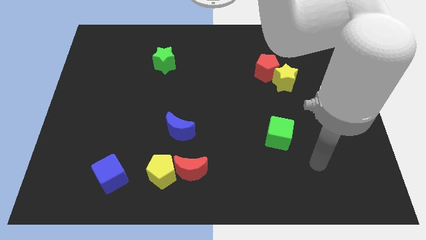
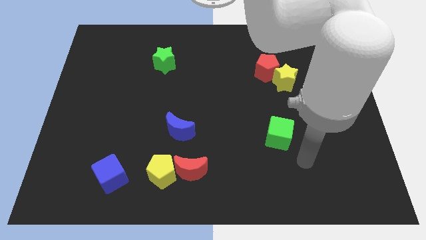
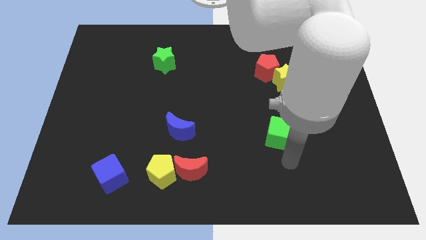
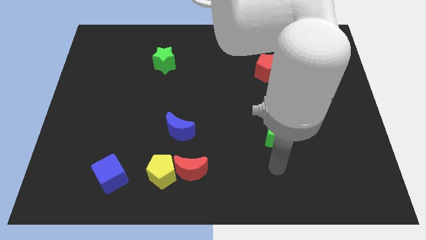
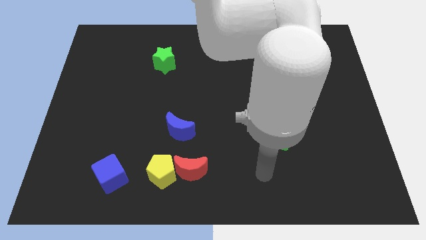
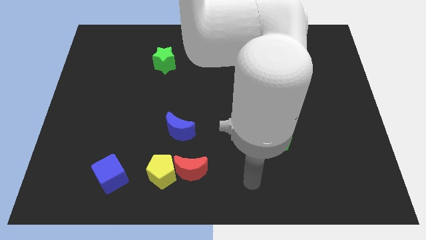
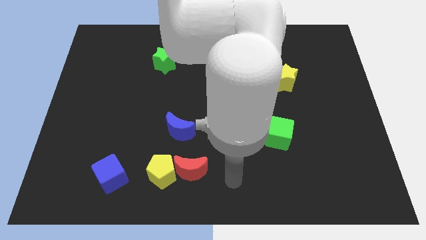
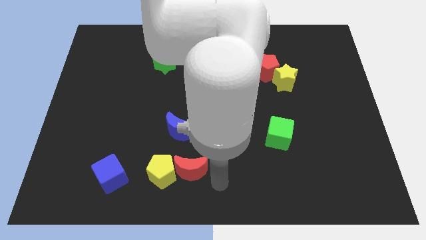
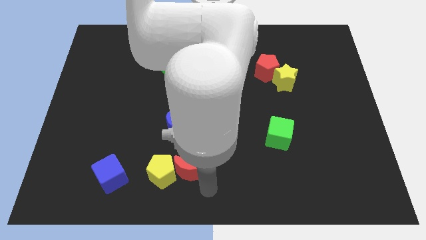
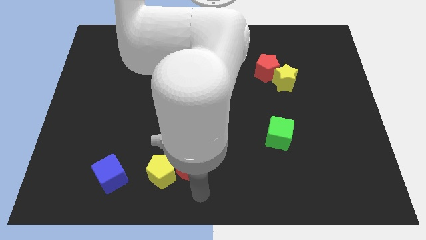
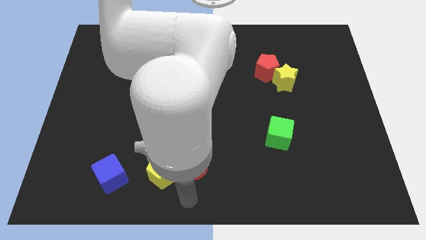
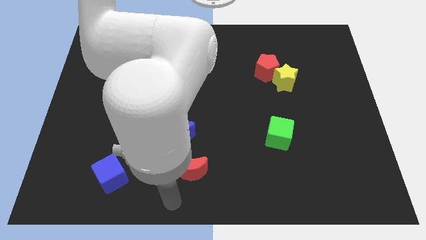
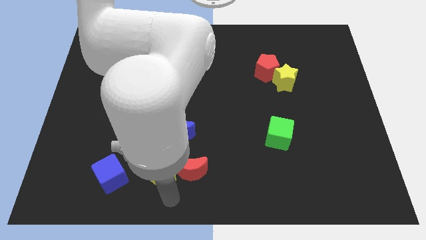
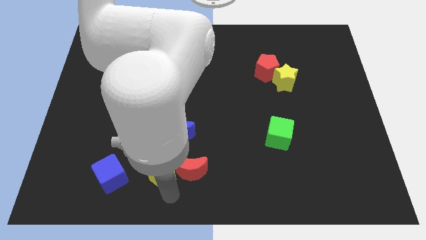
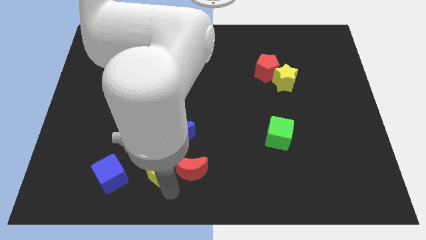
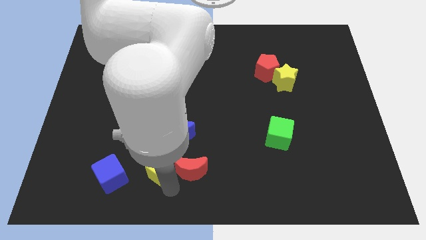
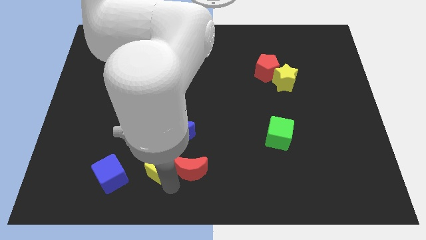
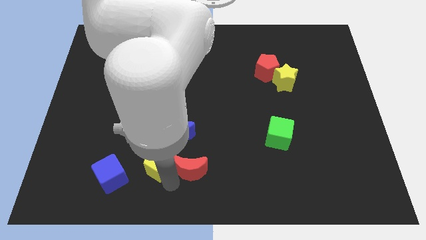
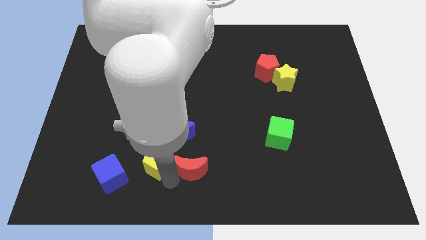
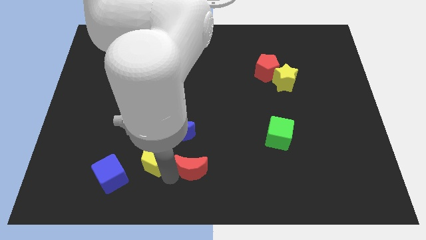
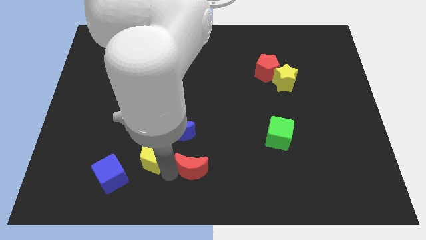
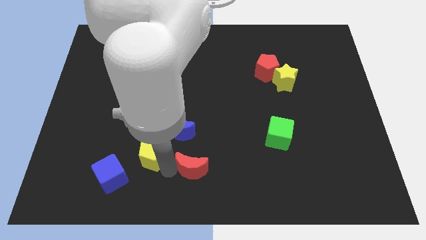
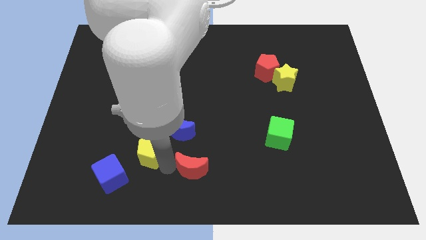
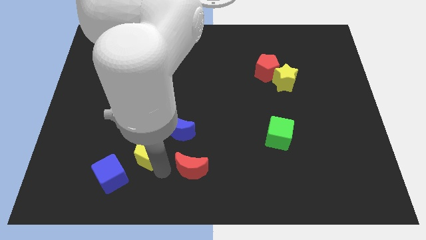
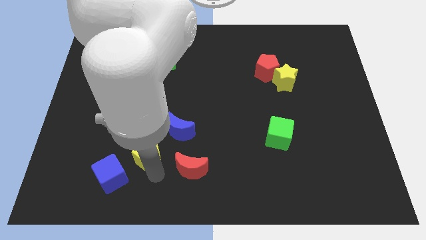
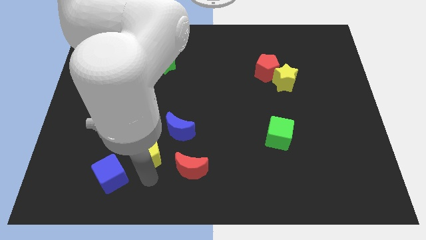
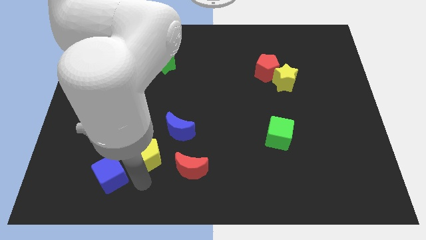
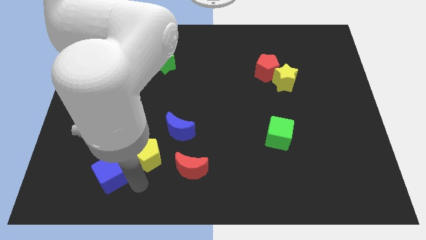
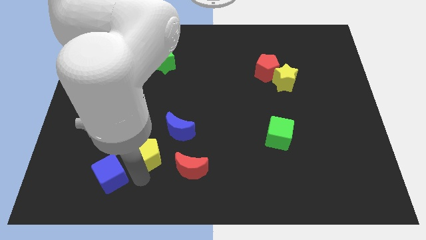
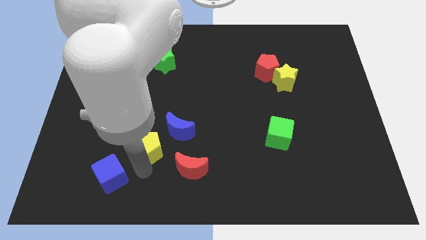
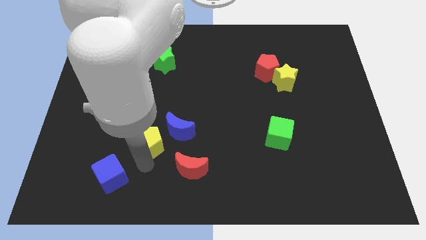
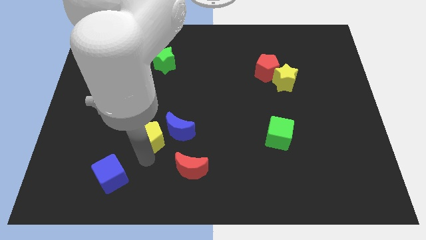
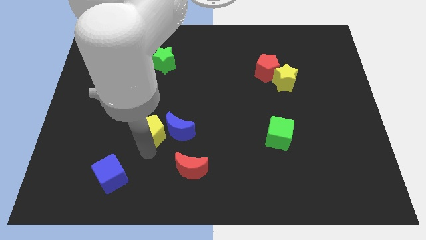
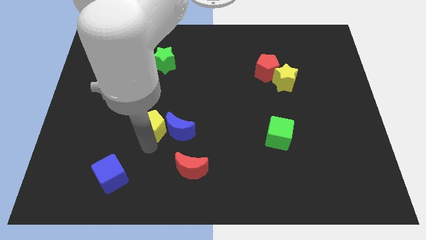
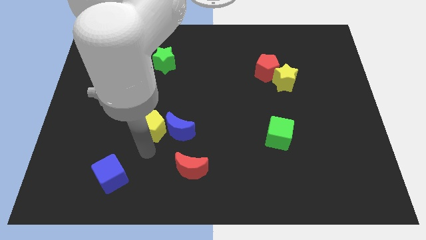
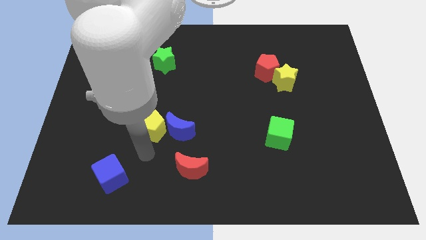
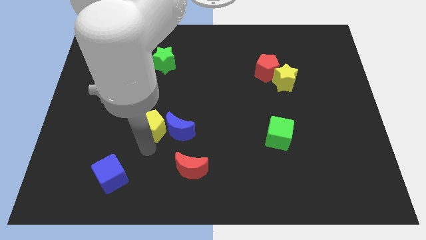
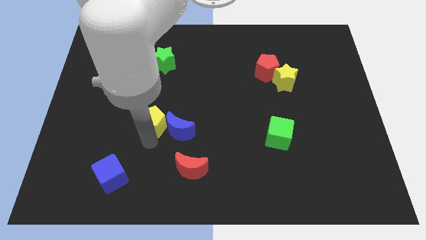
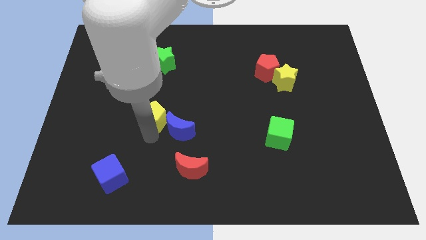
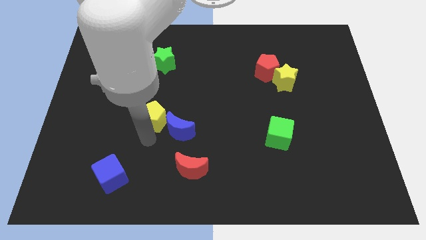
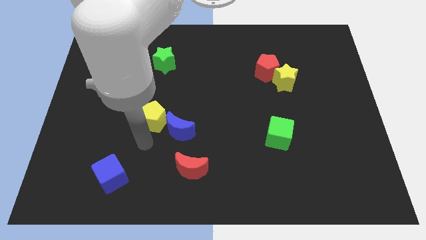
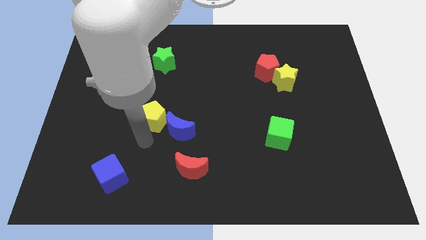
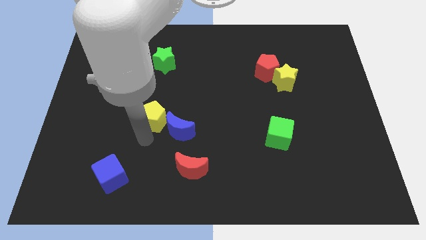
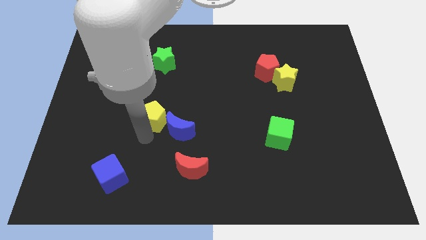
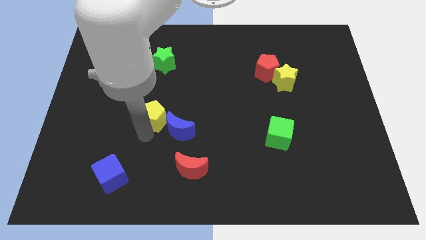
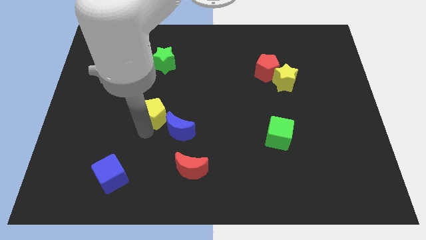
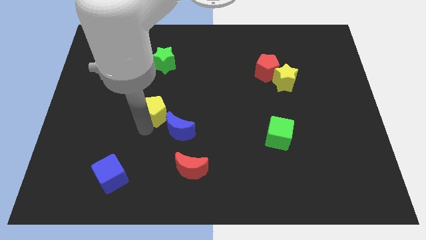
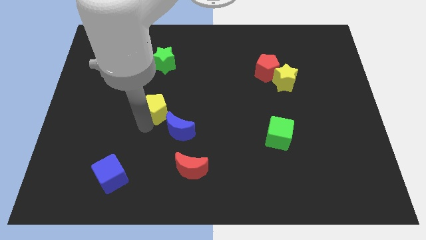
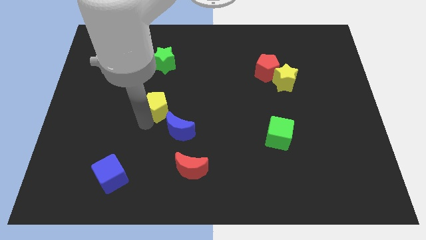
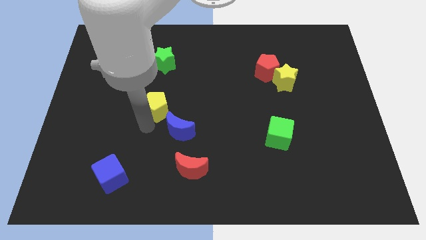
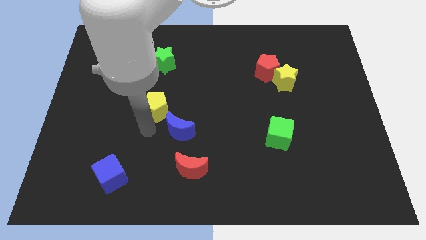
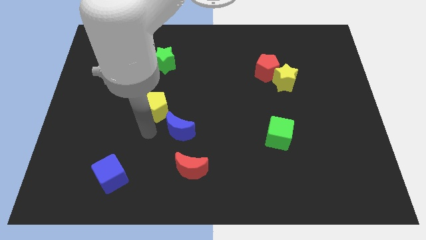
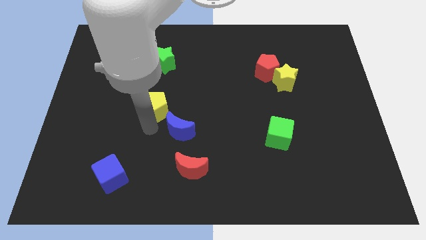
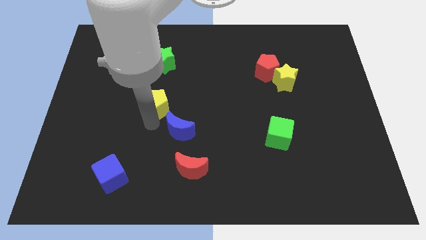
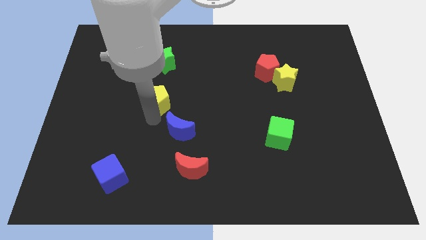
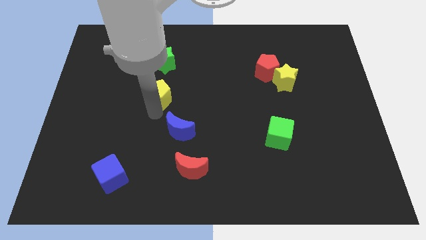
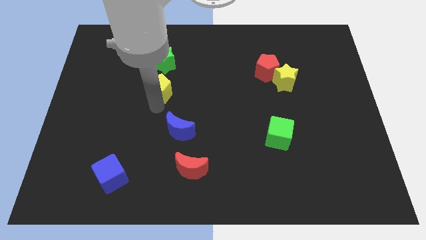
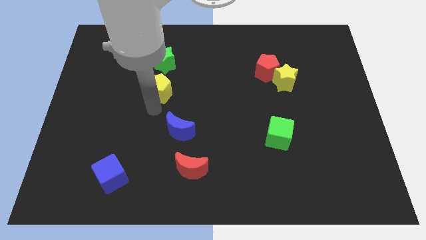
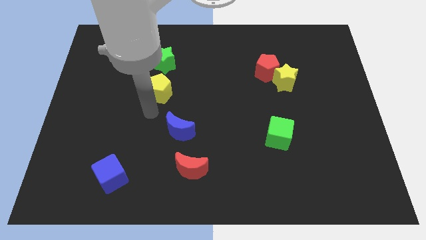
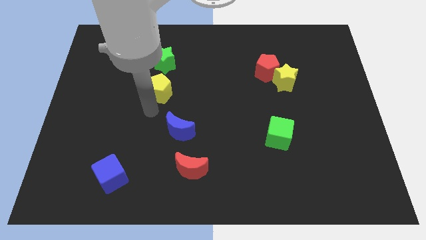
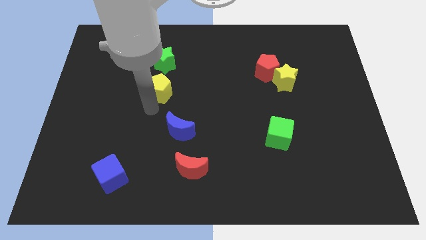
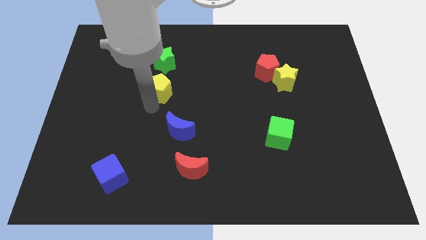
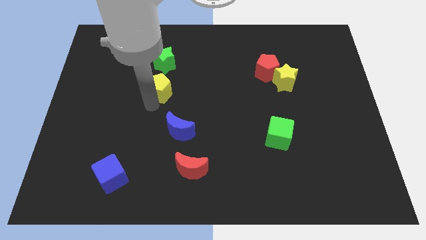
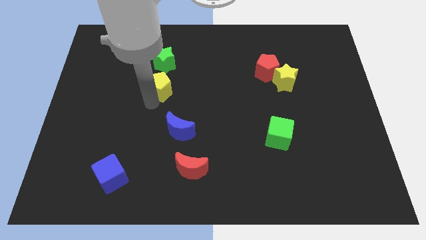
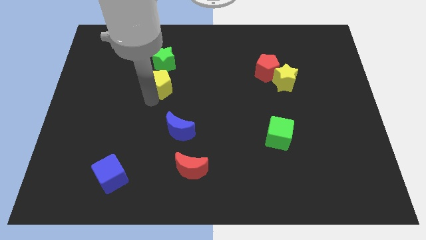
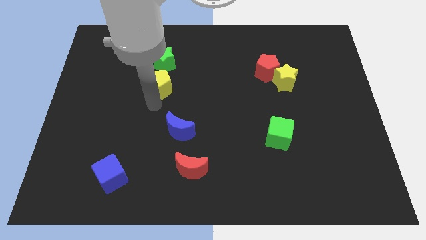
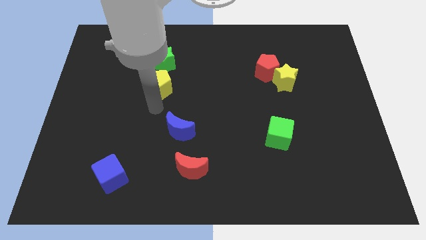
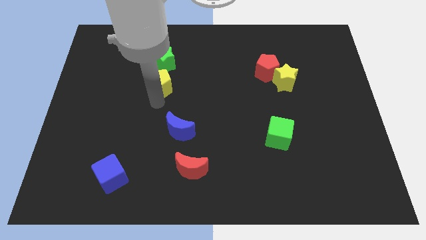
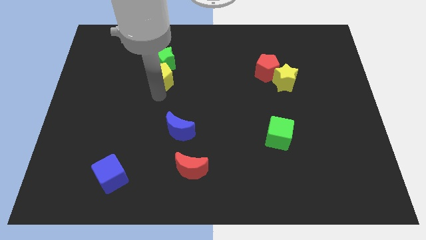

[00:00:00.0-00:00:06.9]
move the yellow pentagon close to the green star
